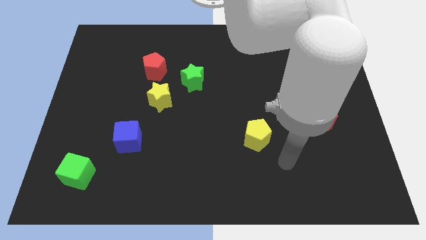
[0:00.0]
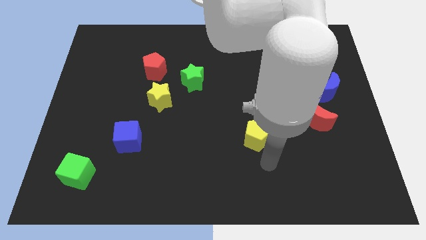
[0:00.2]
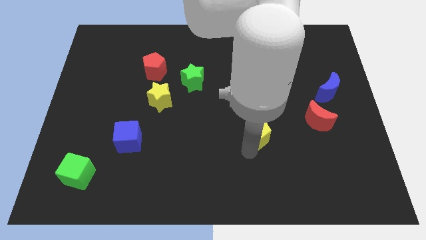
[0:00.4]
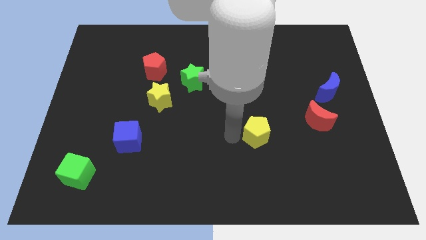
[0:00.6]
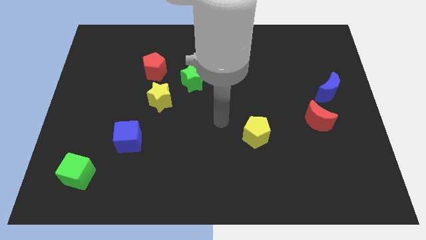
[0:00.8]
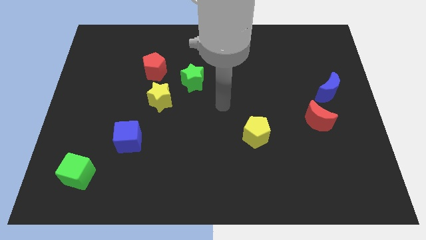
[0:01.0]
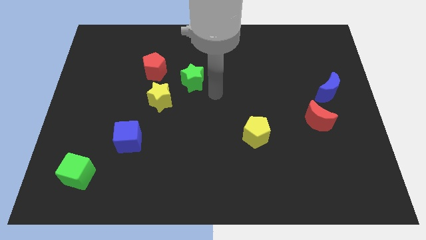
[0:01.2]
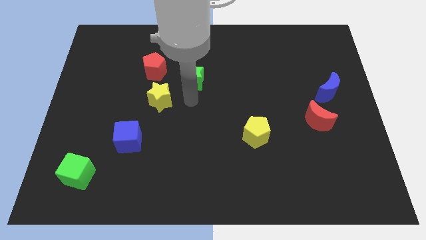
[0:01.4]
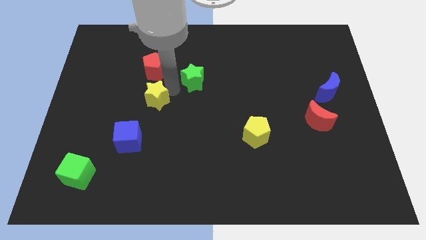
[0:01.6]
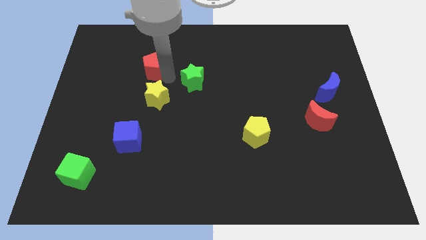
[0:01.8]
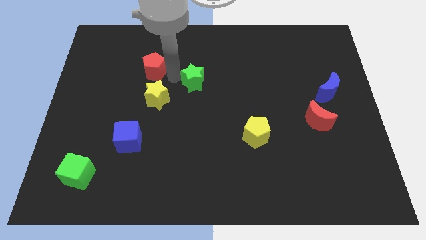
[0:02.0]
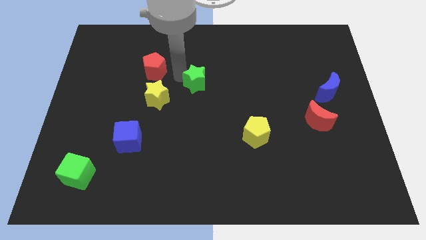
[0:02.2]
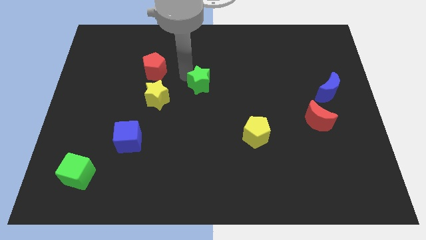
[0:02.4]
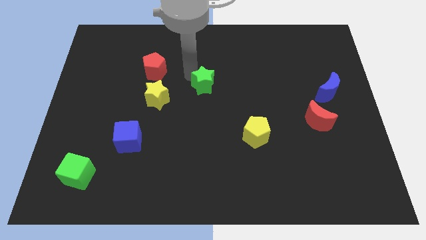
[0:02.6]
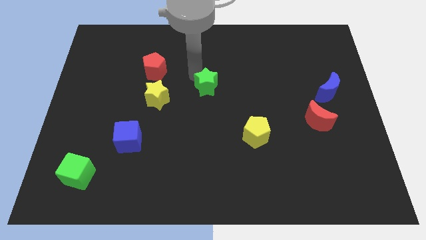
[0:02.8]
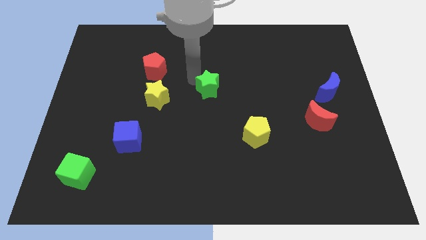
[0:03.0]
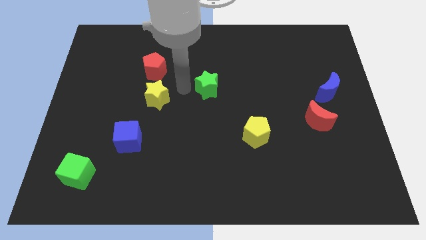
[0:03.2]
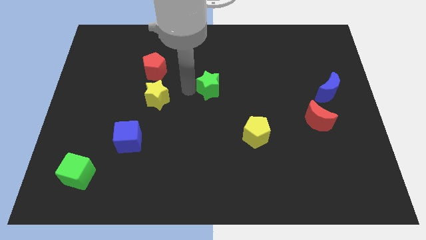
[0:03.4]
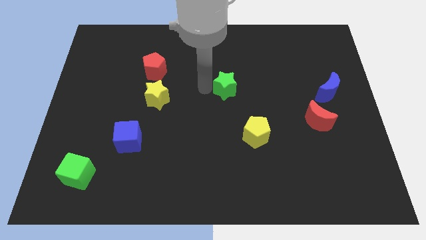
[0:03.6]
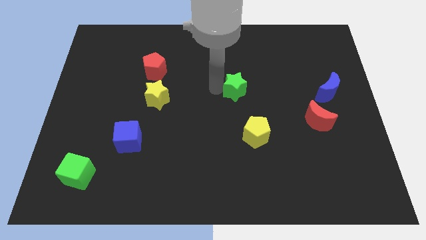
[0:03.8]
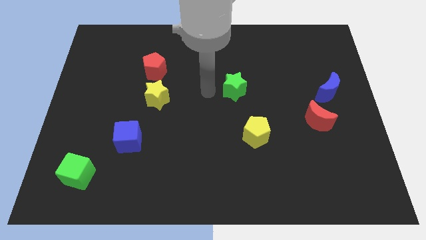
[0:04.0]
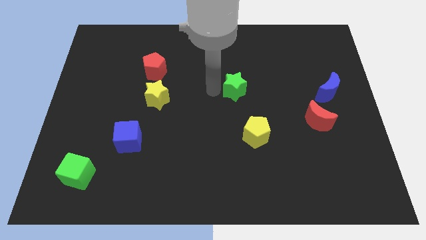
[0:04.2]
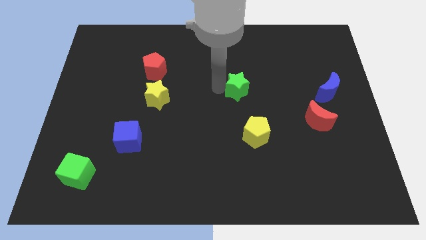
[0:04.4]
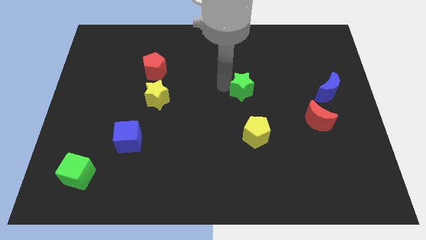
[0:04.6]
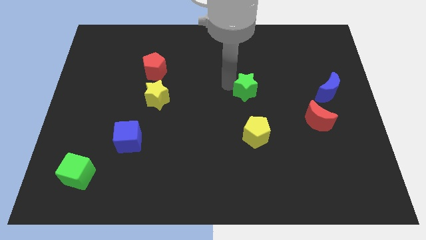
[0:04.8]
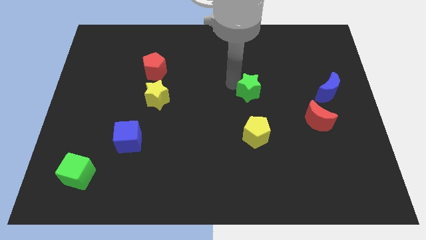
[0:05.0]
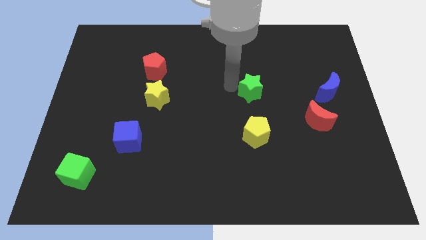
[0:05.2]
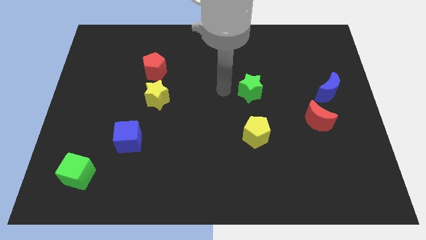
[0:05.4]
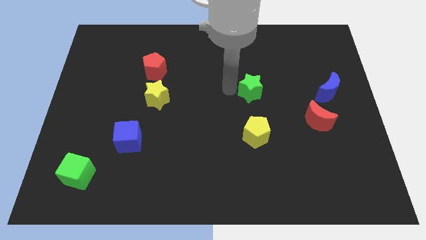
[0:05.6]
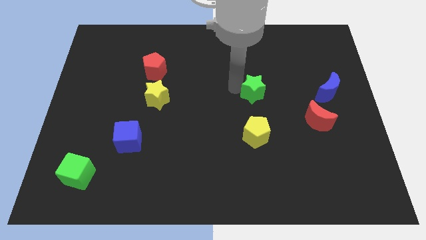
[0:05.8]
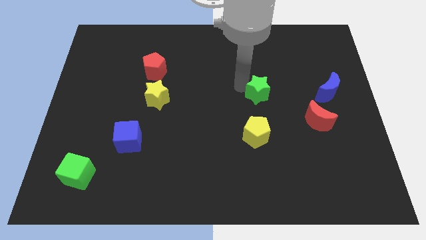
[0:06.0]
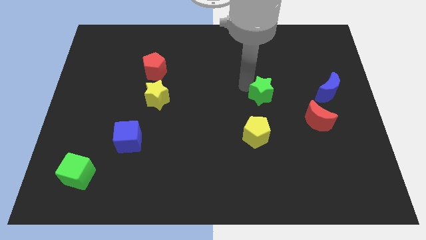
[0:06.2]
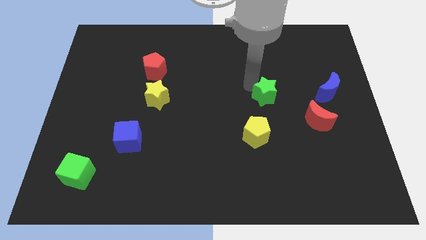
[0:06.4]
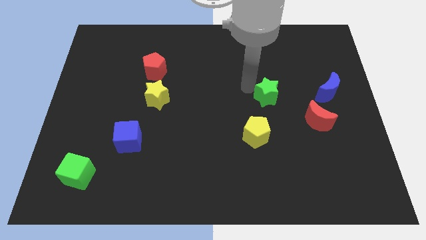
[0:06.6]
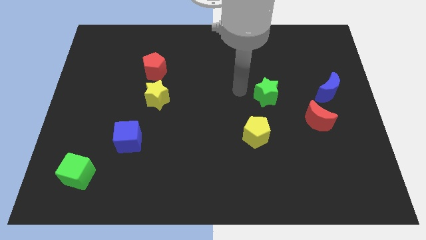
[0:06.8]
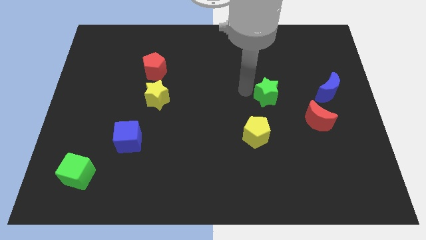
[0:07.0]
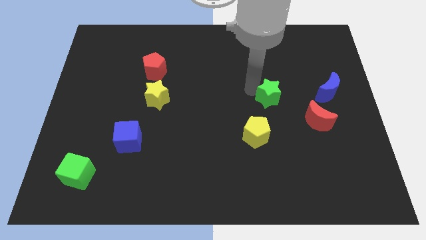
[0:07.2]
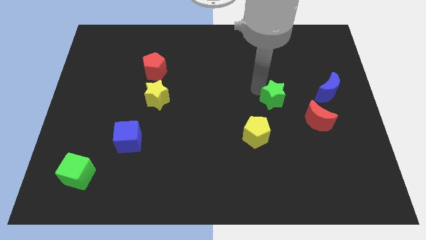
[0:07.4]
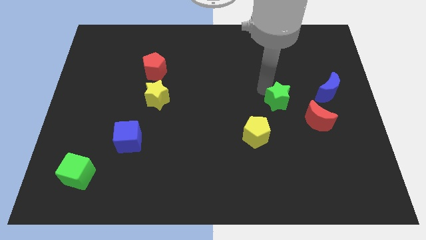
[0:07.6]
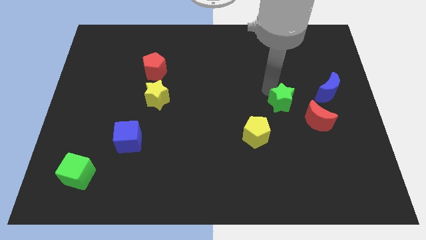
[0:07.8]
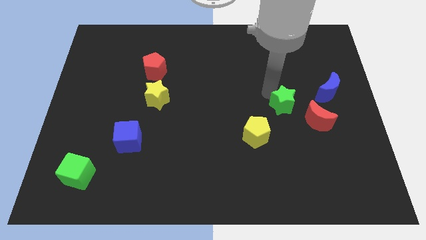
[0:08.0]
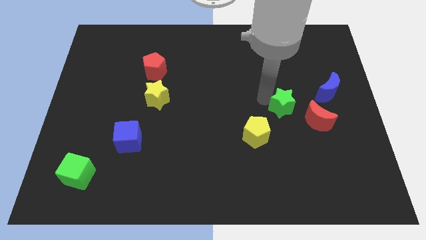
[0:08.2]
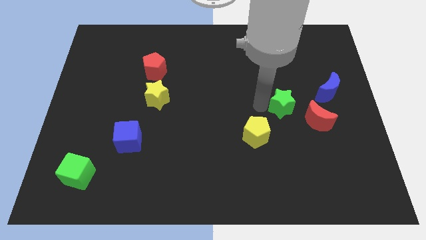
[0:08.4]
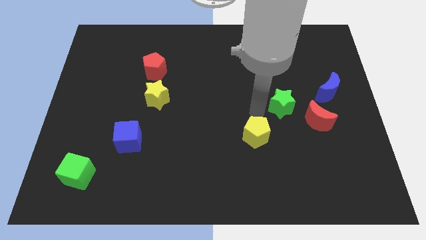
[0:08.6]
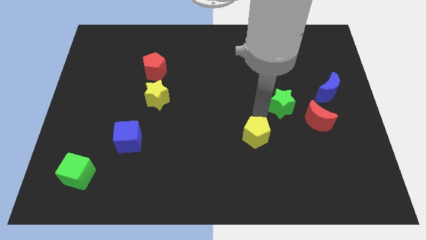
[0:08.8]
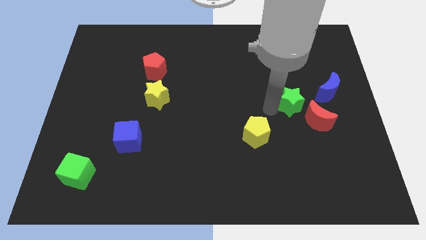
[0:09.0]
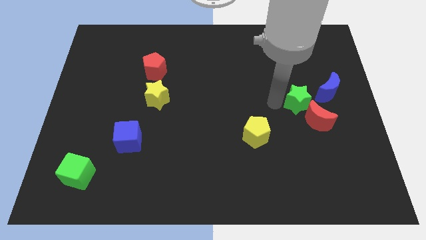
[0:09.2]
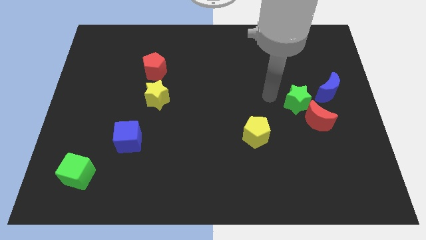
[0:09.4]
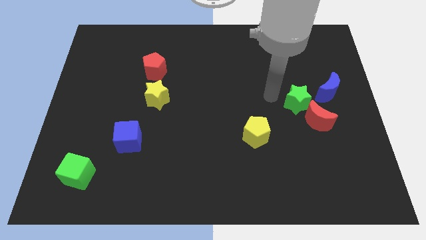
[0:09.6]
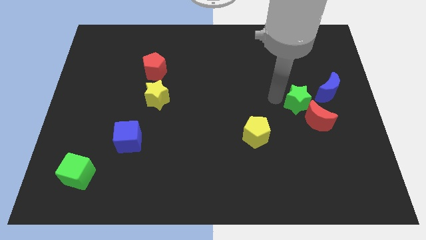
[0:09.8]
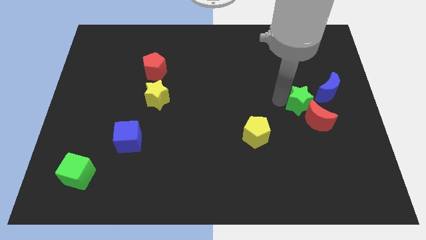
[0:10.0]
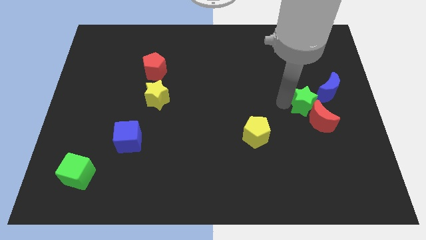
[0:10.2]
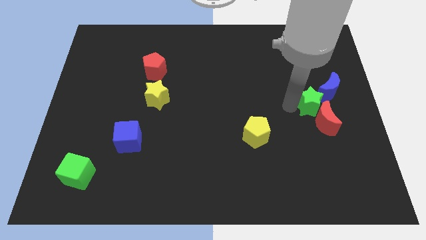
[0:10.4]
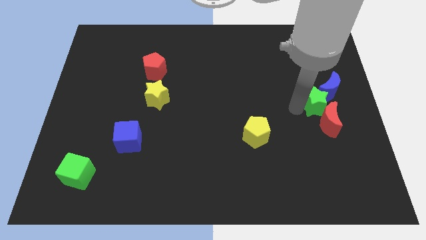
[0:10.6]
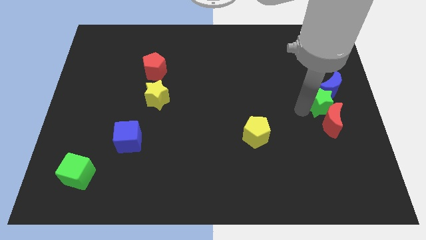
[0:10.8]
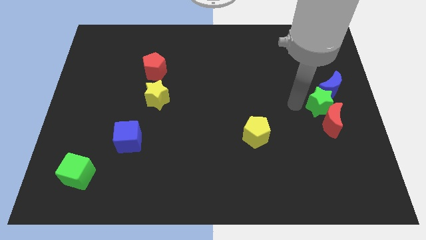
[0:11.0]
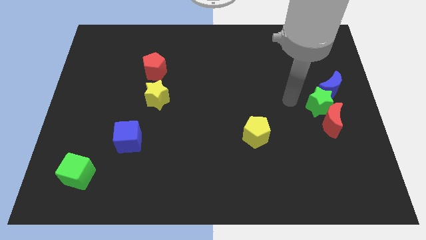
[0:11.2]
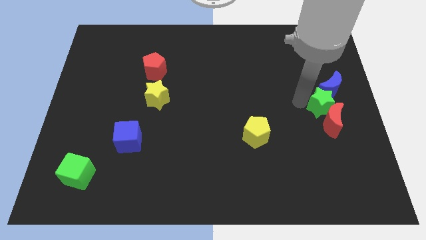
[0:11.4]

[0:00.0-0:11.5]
slide the green star to the right side of the board

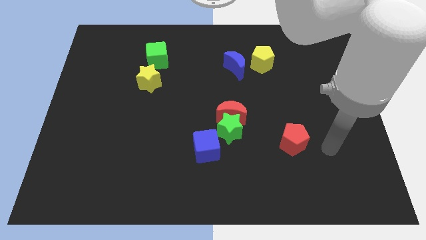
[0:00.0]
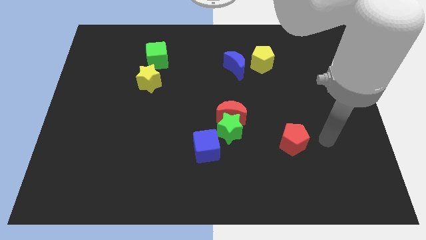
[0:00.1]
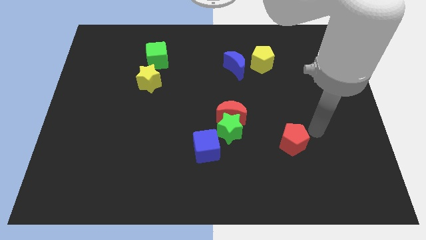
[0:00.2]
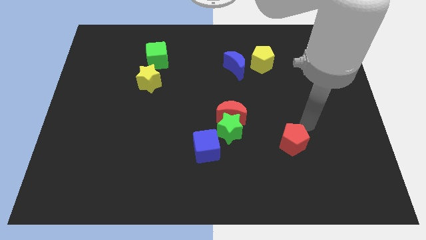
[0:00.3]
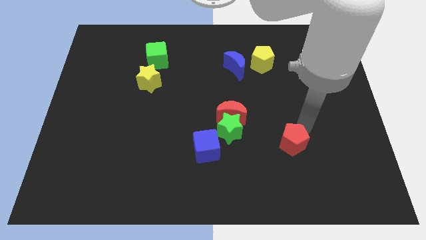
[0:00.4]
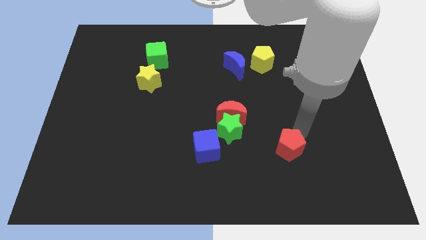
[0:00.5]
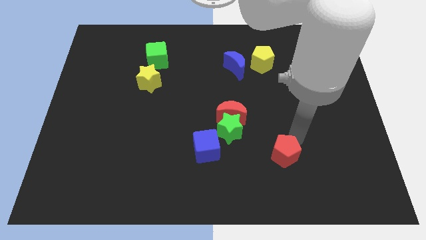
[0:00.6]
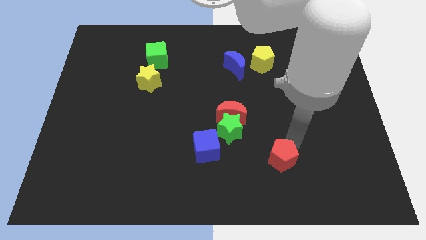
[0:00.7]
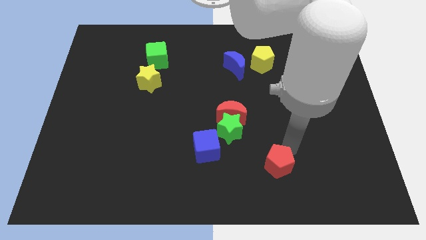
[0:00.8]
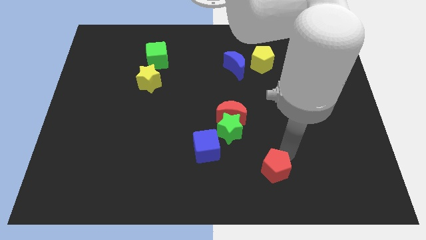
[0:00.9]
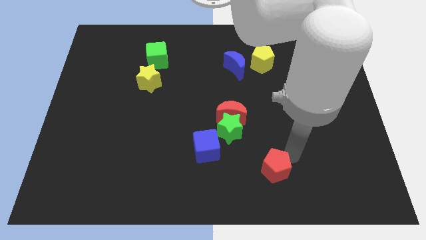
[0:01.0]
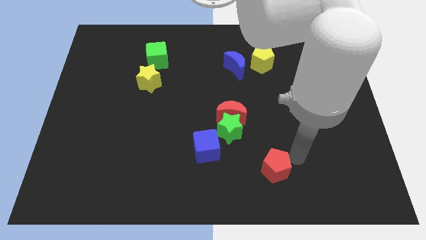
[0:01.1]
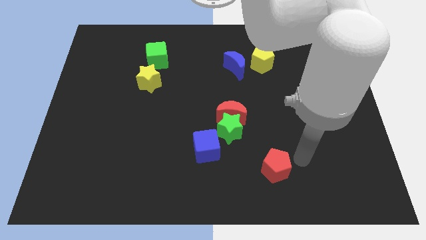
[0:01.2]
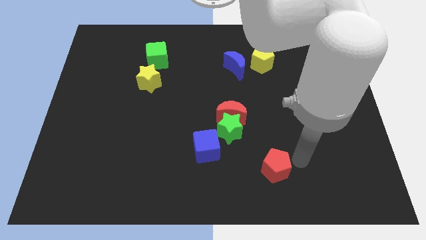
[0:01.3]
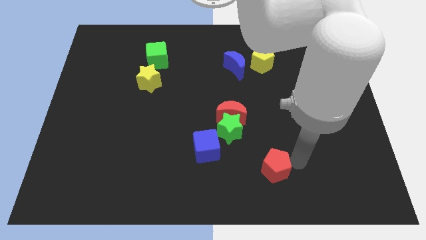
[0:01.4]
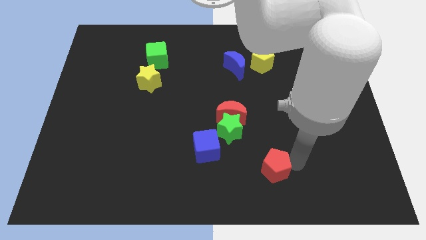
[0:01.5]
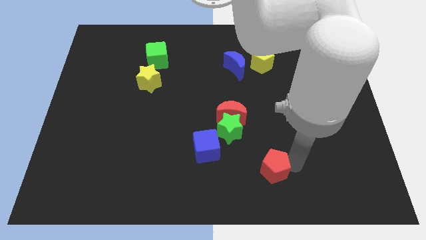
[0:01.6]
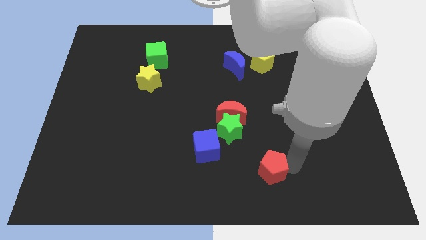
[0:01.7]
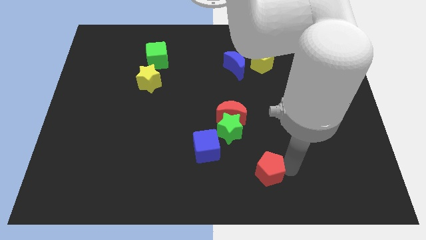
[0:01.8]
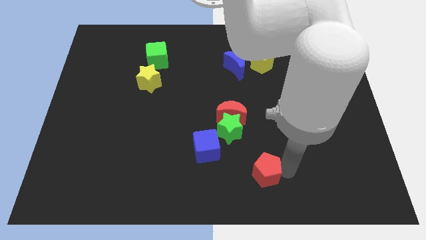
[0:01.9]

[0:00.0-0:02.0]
move the red pentagon to the bottom
